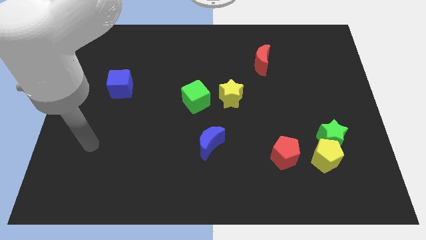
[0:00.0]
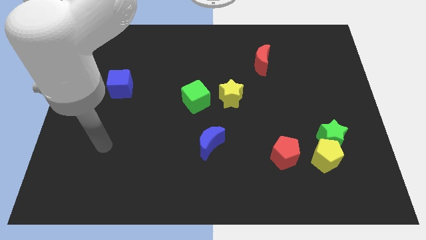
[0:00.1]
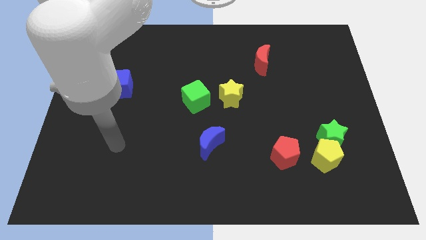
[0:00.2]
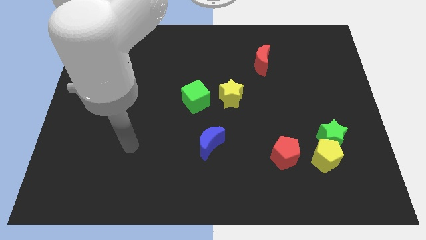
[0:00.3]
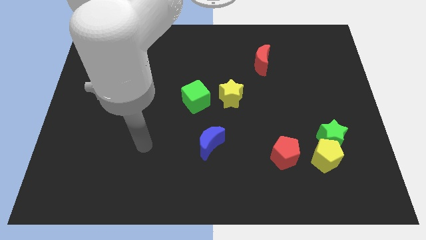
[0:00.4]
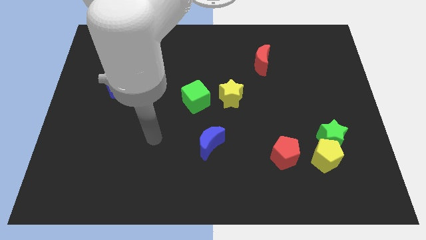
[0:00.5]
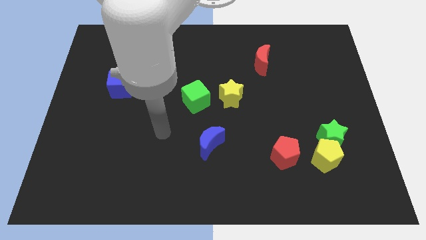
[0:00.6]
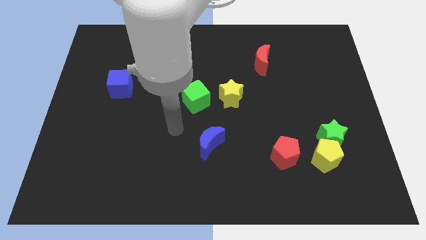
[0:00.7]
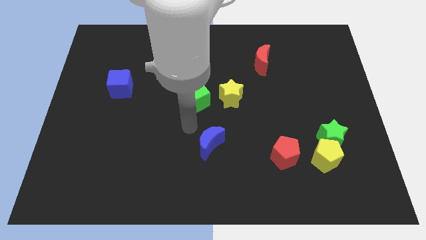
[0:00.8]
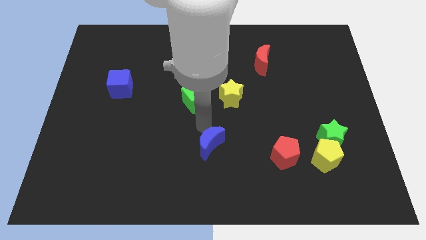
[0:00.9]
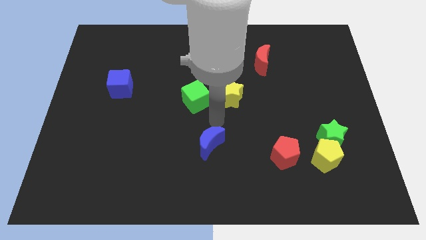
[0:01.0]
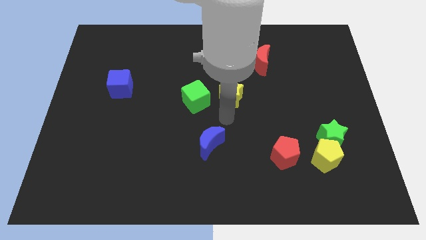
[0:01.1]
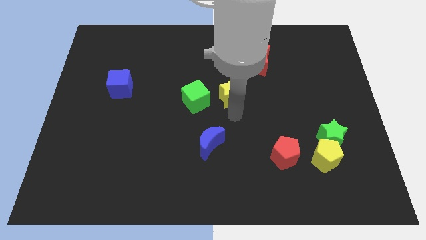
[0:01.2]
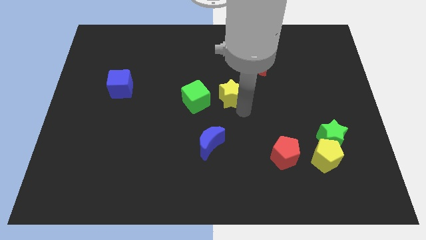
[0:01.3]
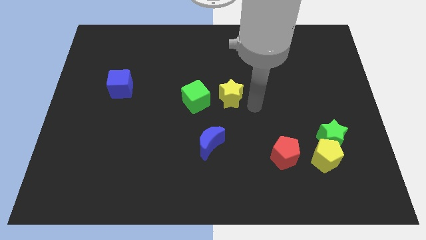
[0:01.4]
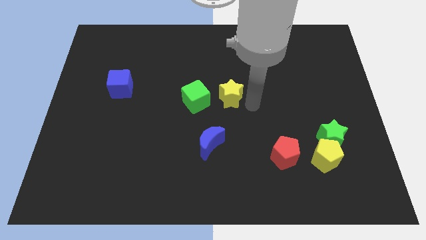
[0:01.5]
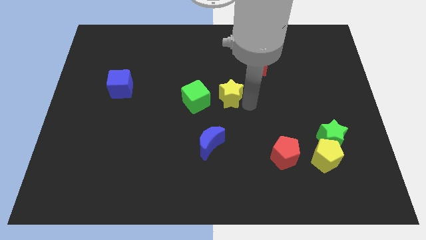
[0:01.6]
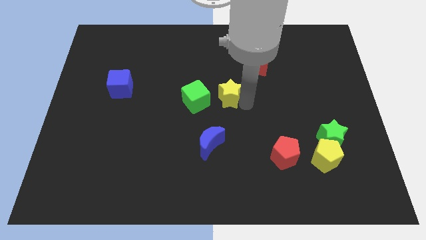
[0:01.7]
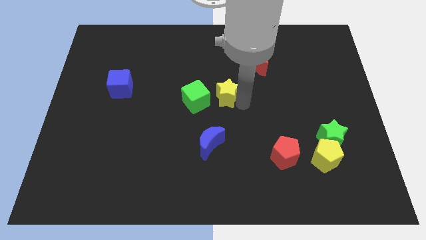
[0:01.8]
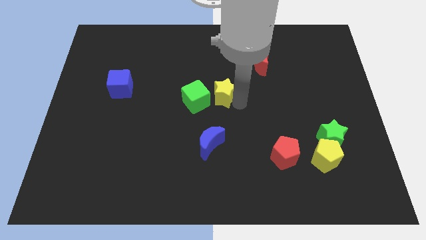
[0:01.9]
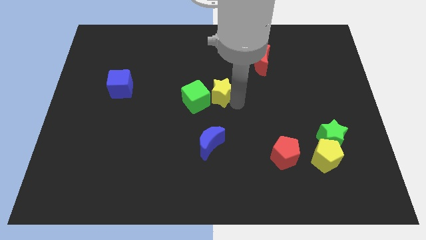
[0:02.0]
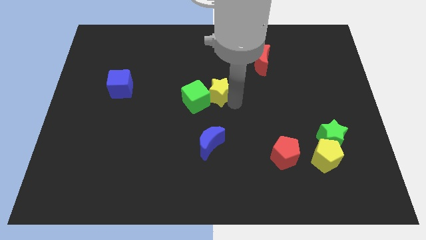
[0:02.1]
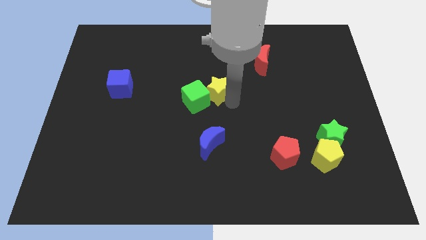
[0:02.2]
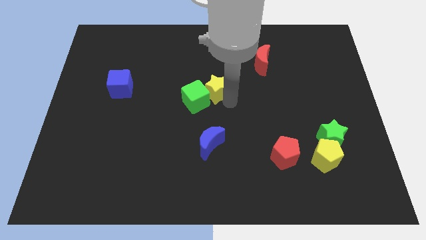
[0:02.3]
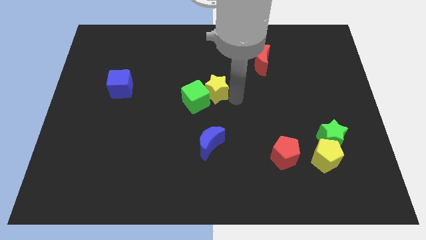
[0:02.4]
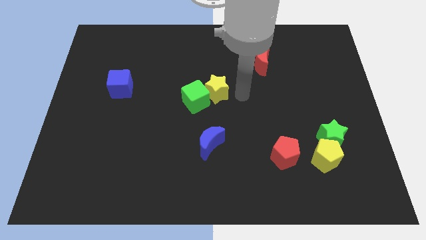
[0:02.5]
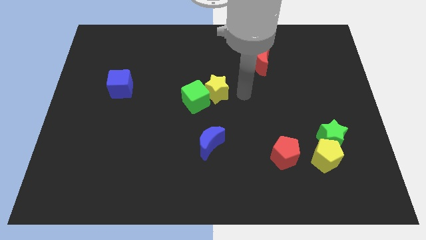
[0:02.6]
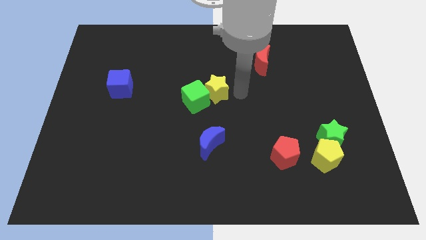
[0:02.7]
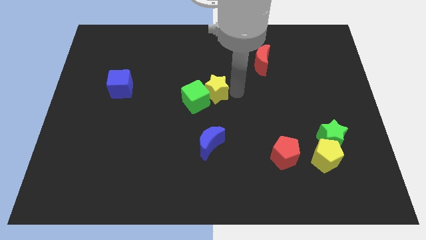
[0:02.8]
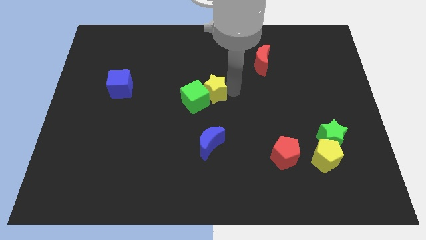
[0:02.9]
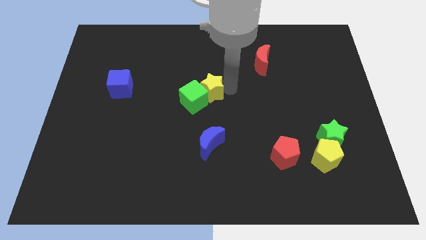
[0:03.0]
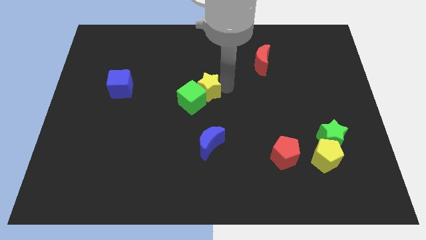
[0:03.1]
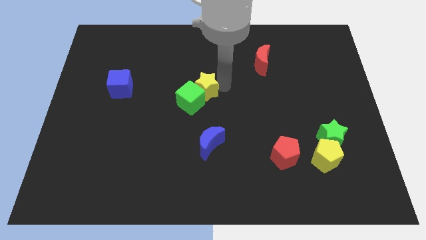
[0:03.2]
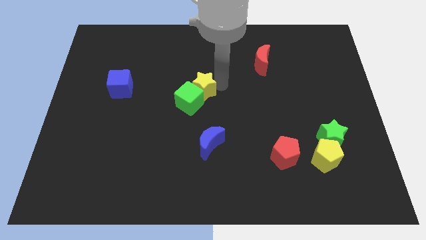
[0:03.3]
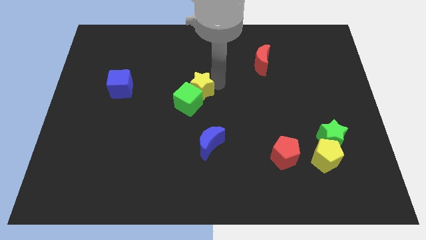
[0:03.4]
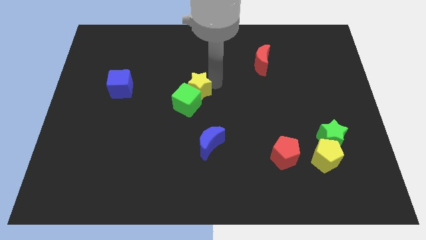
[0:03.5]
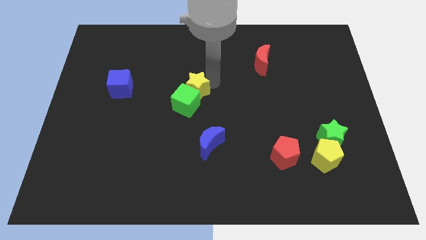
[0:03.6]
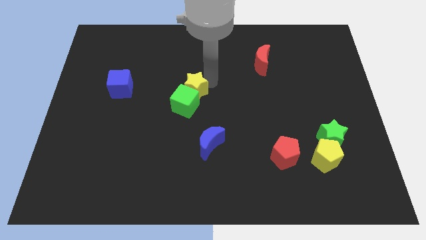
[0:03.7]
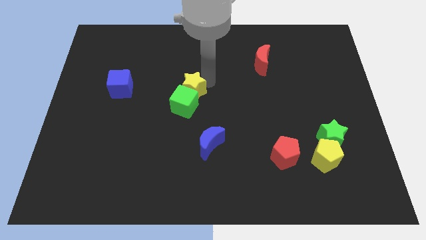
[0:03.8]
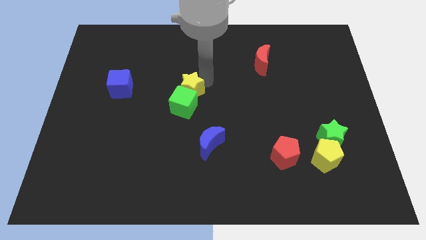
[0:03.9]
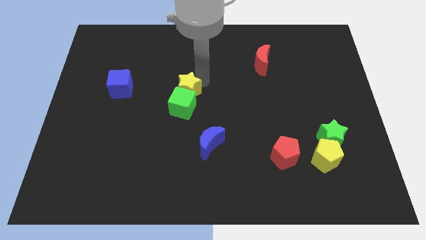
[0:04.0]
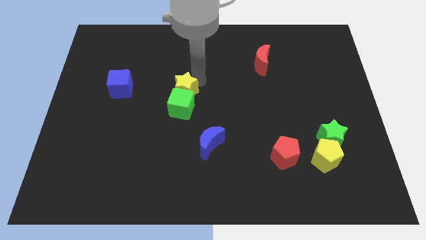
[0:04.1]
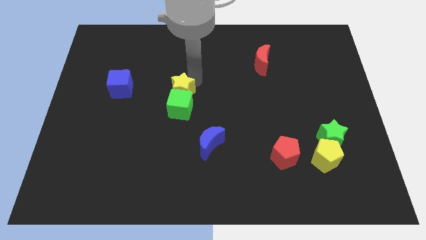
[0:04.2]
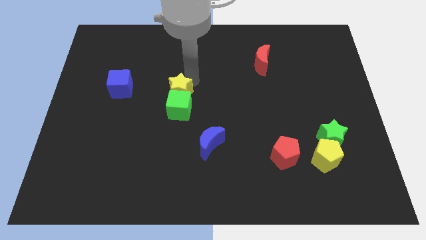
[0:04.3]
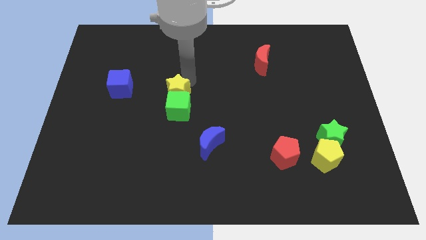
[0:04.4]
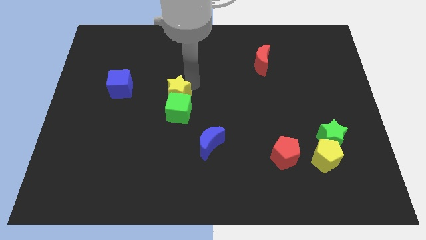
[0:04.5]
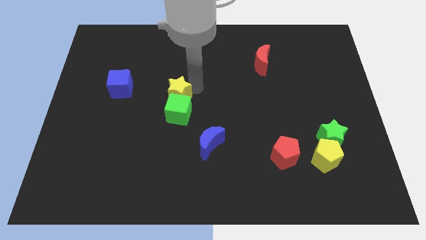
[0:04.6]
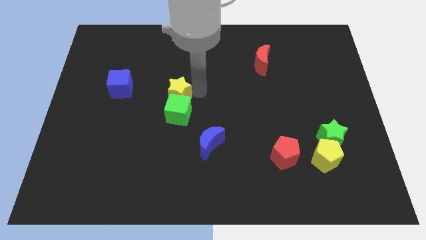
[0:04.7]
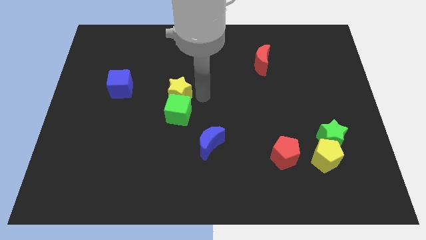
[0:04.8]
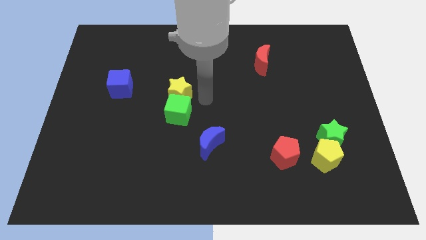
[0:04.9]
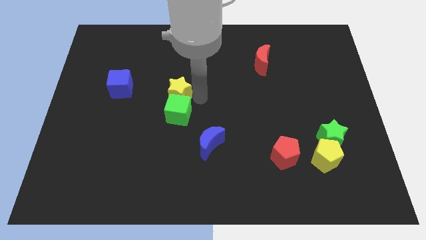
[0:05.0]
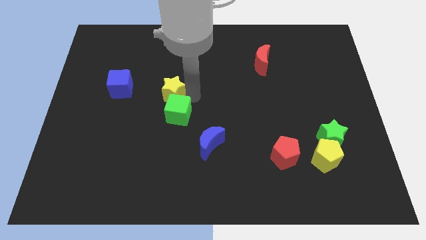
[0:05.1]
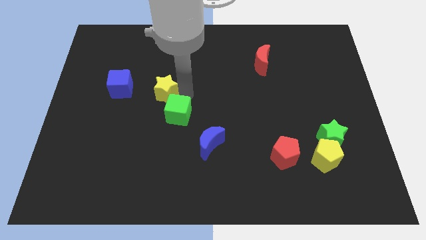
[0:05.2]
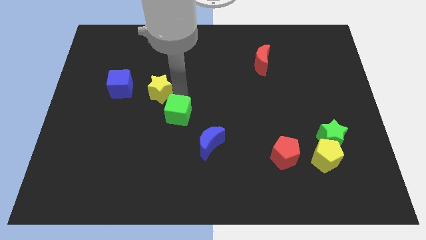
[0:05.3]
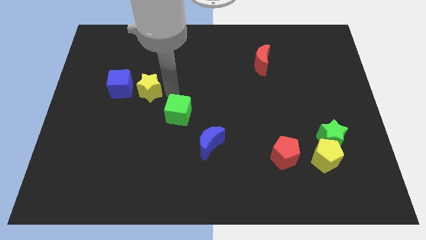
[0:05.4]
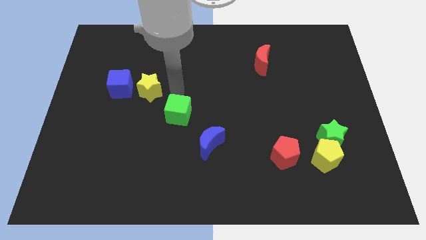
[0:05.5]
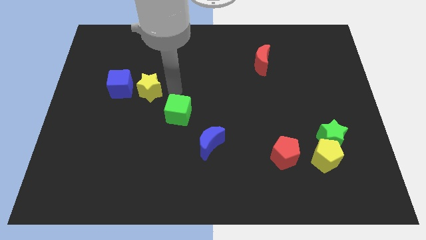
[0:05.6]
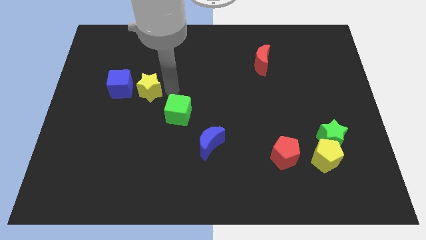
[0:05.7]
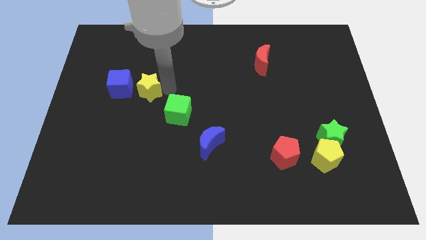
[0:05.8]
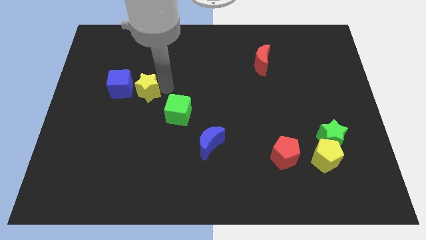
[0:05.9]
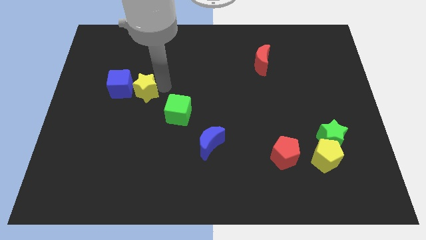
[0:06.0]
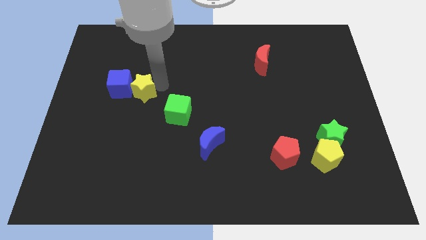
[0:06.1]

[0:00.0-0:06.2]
push the yellow star to the blue cube

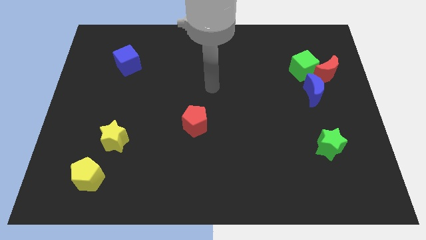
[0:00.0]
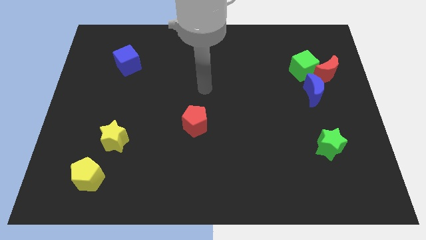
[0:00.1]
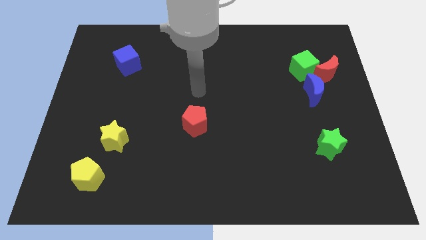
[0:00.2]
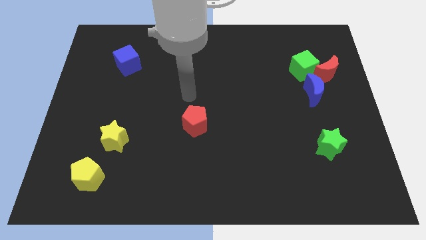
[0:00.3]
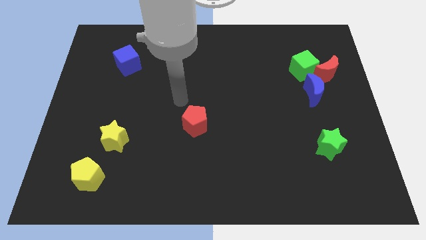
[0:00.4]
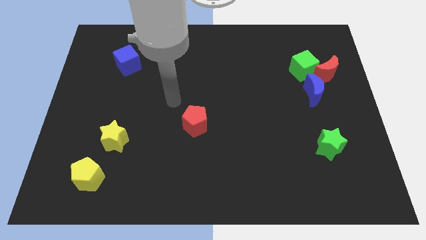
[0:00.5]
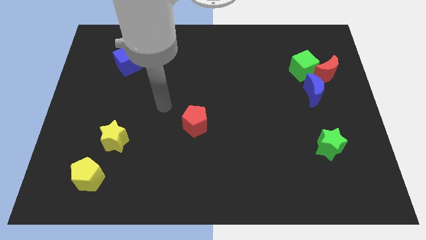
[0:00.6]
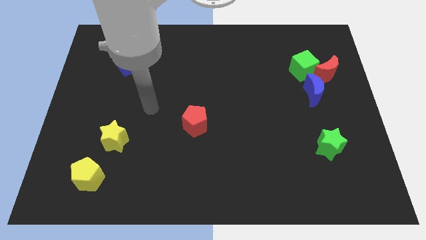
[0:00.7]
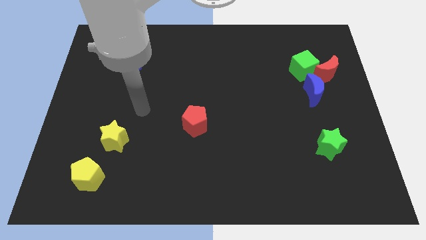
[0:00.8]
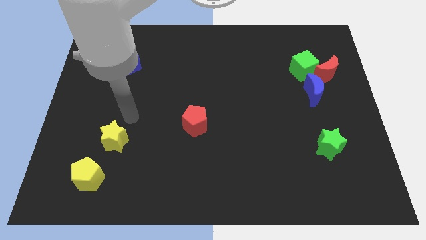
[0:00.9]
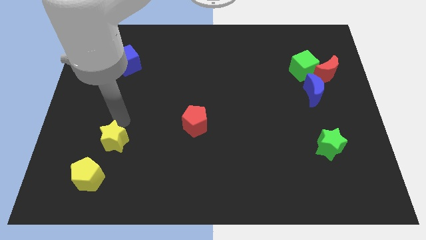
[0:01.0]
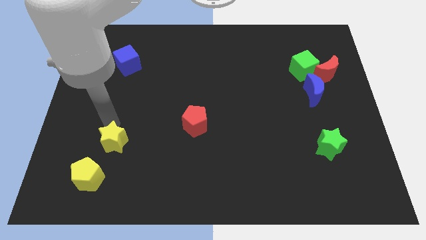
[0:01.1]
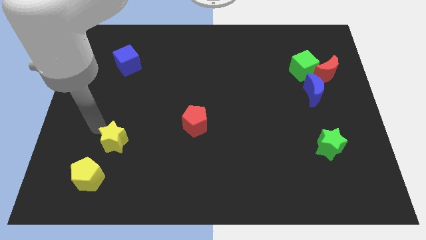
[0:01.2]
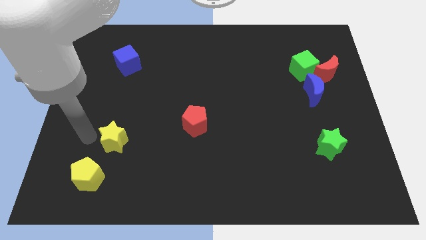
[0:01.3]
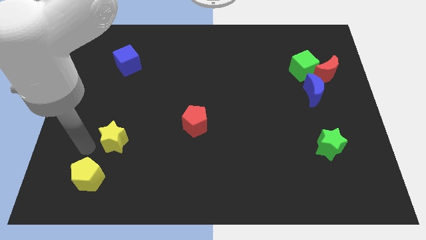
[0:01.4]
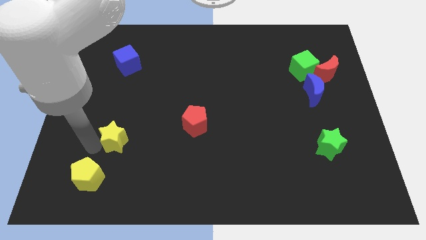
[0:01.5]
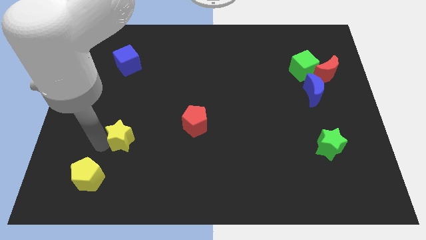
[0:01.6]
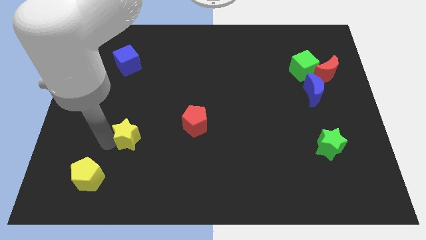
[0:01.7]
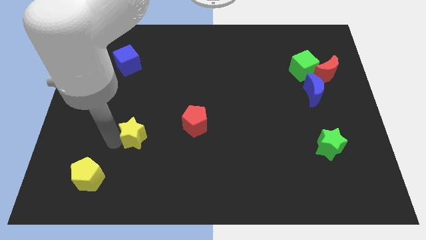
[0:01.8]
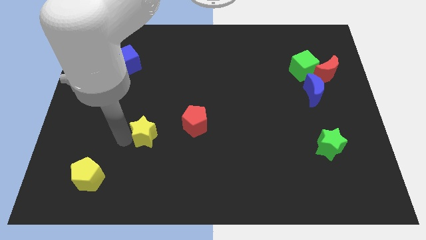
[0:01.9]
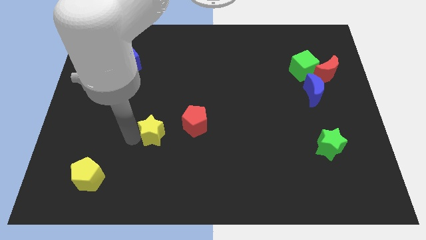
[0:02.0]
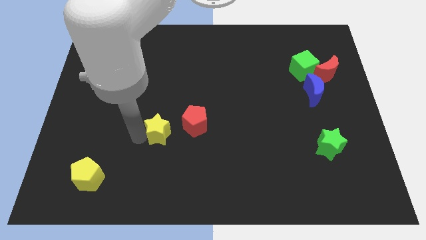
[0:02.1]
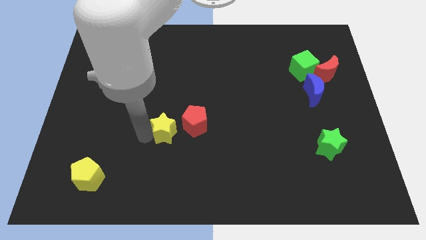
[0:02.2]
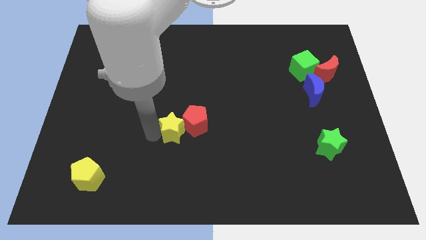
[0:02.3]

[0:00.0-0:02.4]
slide the yellow star close to the red pentagon
